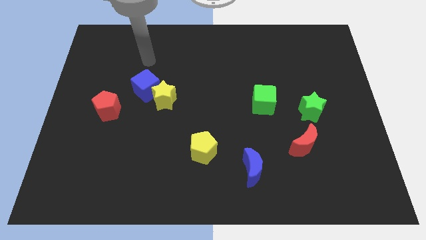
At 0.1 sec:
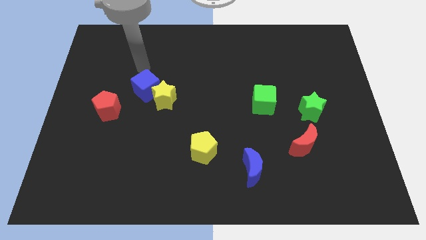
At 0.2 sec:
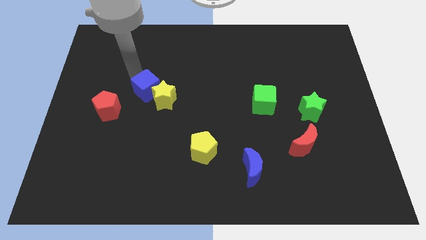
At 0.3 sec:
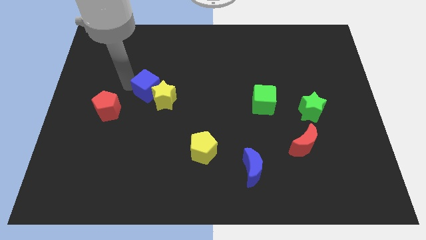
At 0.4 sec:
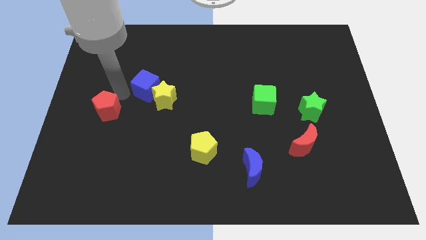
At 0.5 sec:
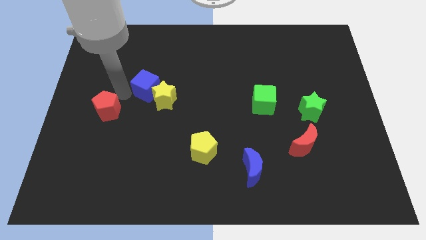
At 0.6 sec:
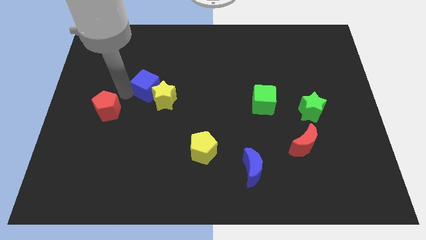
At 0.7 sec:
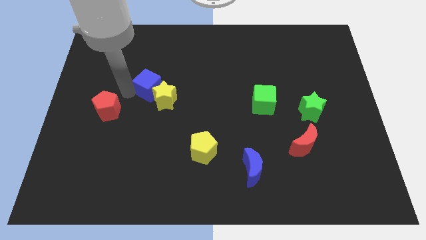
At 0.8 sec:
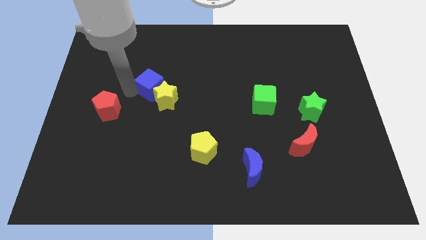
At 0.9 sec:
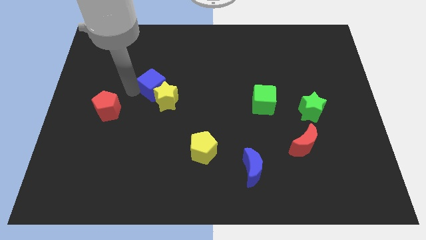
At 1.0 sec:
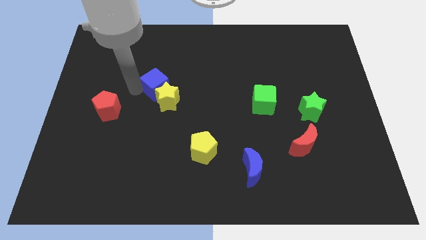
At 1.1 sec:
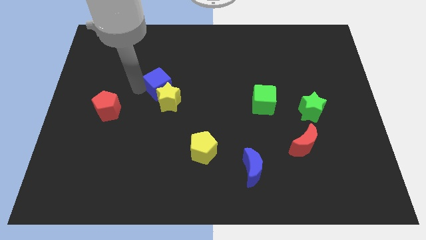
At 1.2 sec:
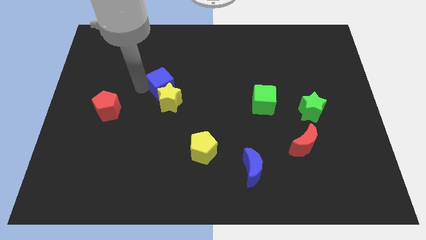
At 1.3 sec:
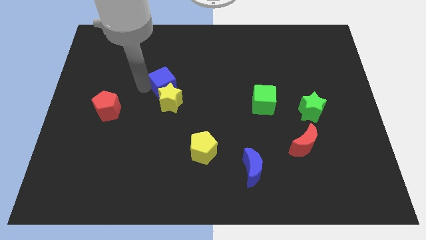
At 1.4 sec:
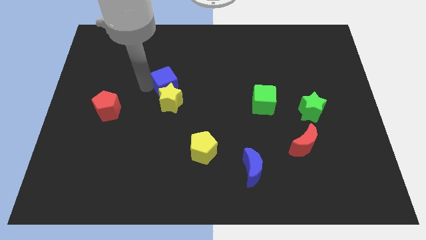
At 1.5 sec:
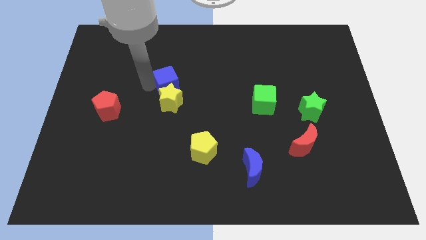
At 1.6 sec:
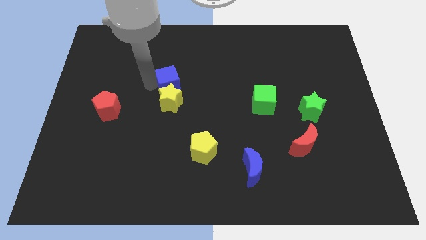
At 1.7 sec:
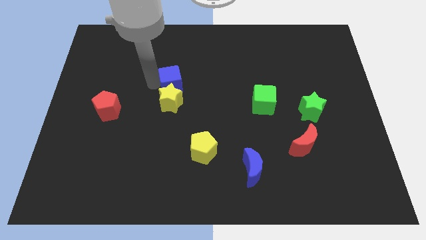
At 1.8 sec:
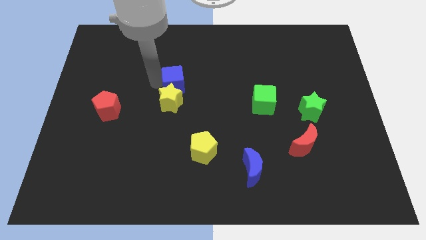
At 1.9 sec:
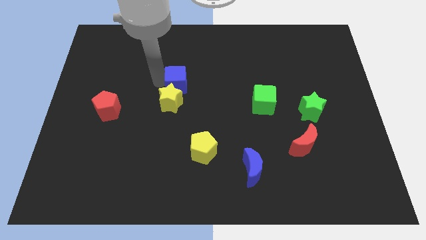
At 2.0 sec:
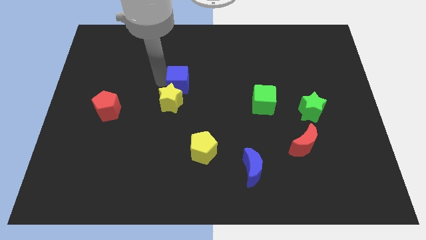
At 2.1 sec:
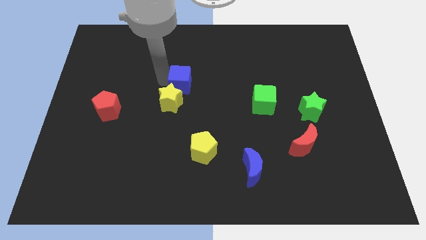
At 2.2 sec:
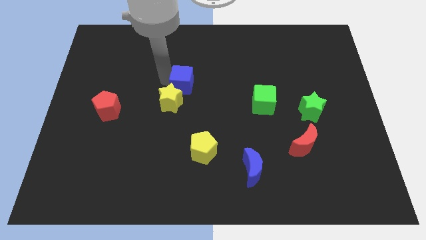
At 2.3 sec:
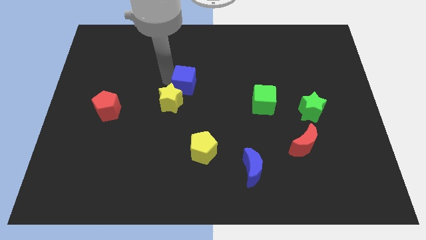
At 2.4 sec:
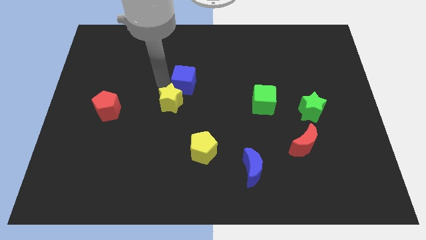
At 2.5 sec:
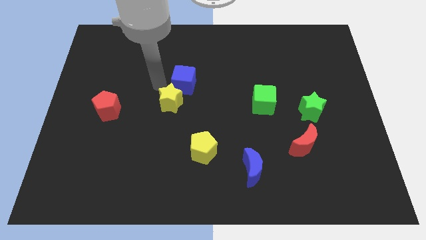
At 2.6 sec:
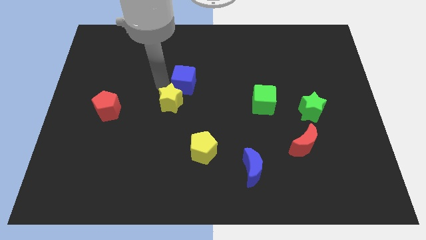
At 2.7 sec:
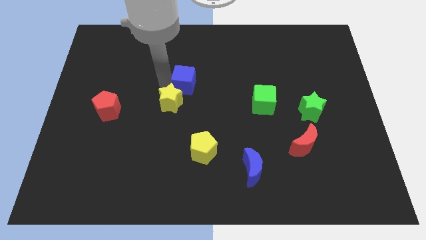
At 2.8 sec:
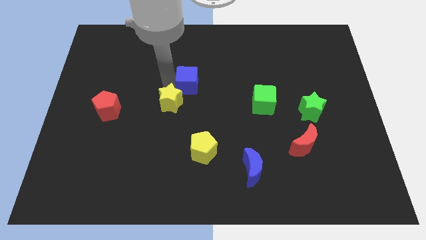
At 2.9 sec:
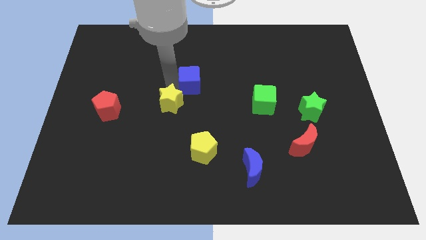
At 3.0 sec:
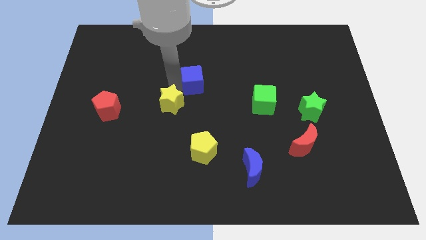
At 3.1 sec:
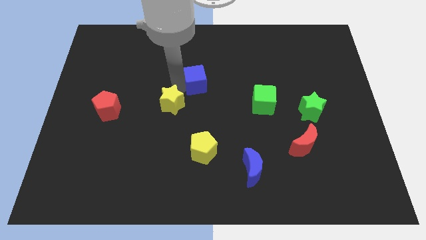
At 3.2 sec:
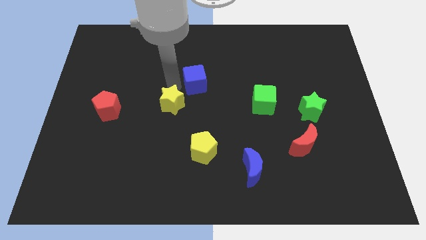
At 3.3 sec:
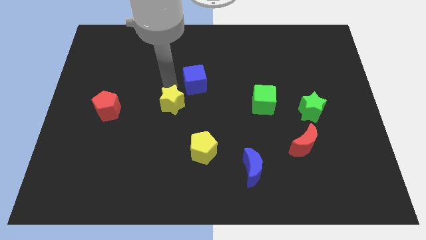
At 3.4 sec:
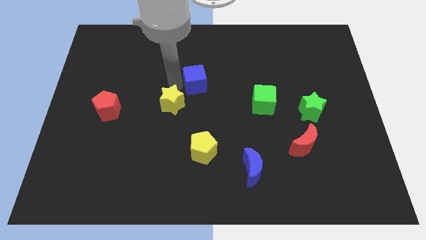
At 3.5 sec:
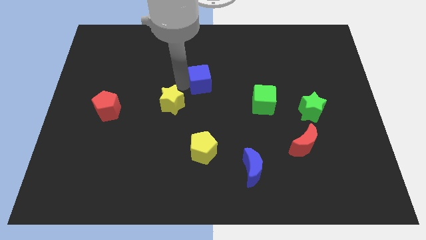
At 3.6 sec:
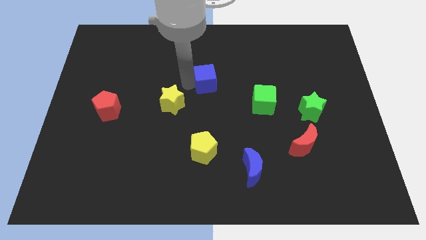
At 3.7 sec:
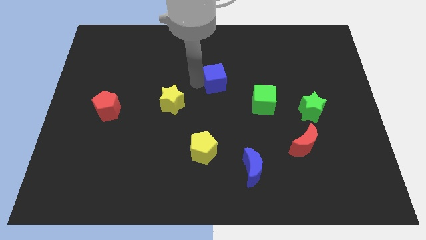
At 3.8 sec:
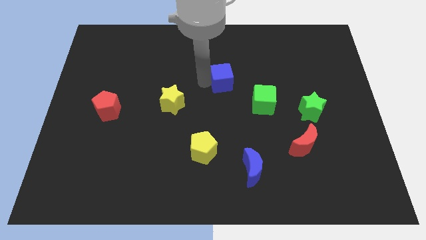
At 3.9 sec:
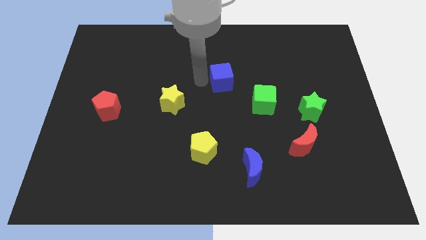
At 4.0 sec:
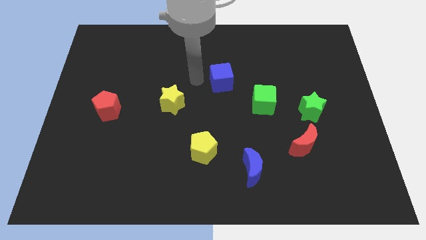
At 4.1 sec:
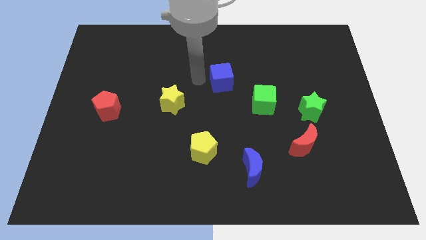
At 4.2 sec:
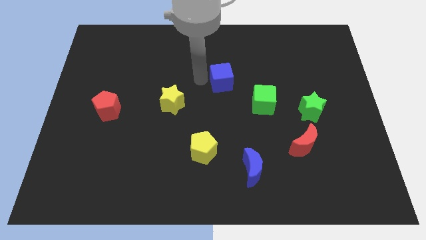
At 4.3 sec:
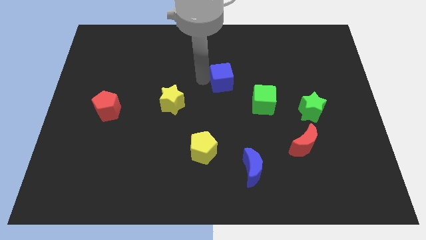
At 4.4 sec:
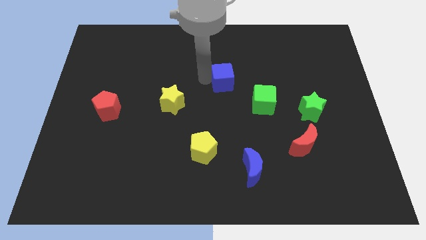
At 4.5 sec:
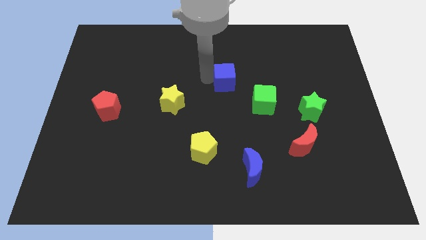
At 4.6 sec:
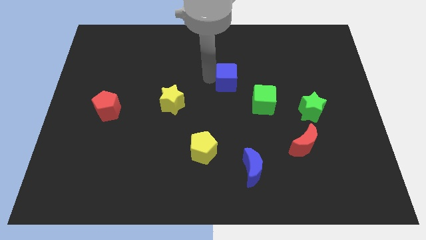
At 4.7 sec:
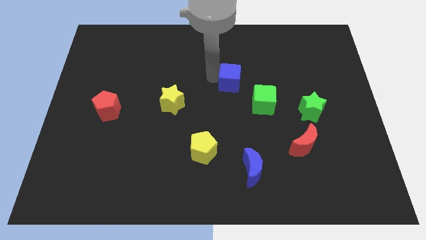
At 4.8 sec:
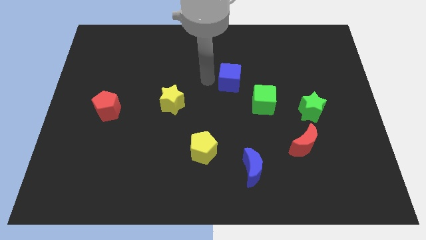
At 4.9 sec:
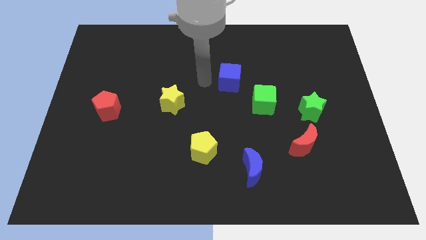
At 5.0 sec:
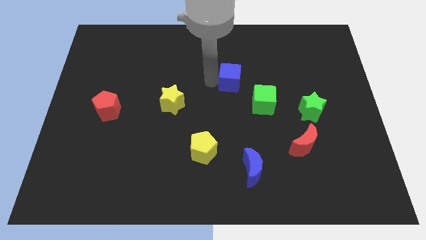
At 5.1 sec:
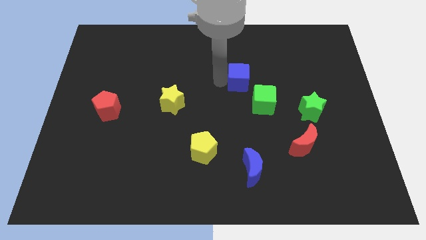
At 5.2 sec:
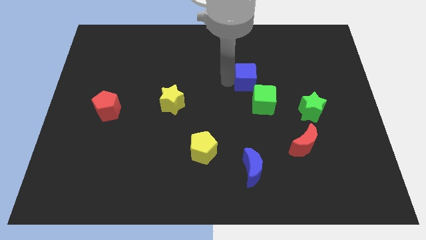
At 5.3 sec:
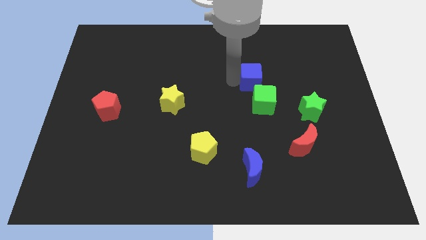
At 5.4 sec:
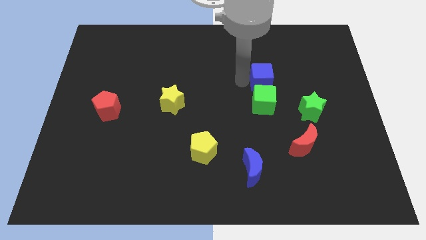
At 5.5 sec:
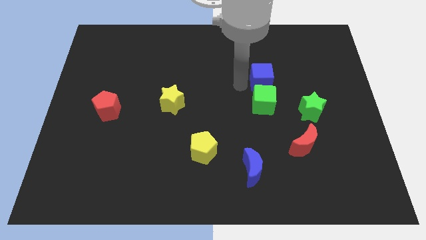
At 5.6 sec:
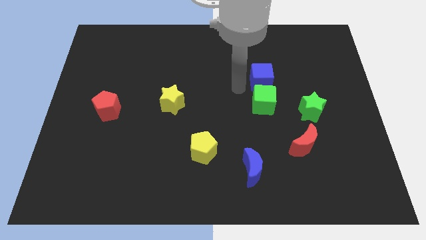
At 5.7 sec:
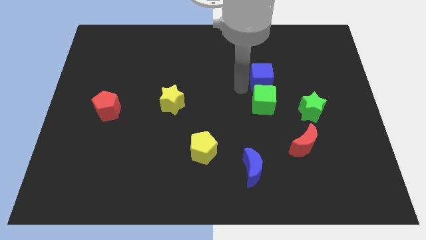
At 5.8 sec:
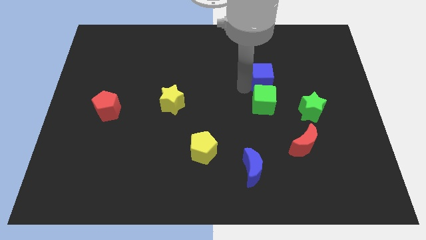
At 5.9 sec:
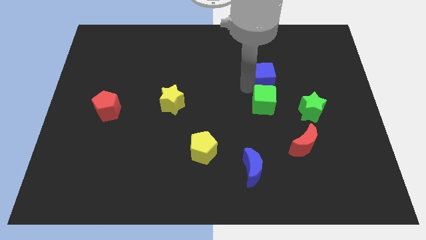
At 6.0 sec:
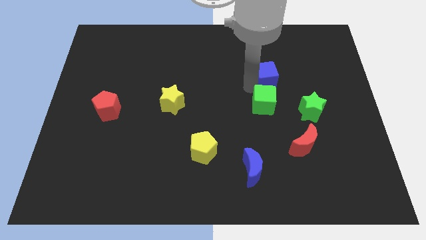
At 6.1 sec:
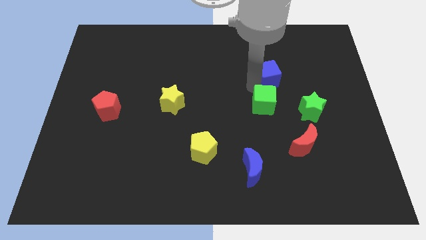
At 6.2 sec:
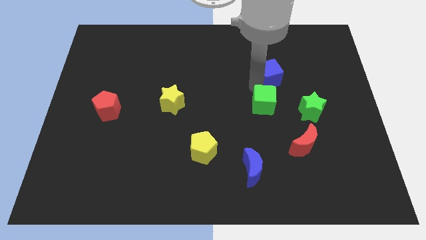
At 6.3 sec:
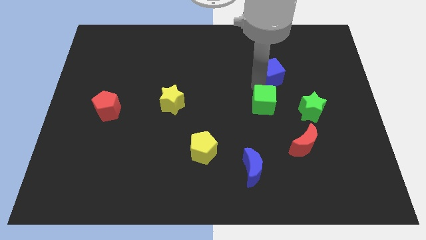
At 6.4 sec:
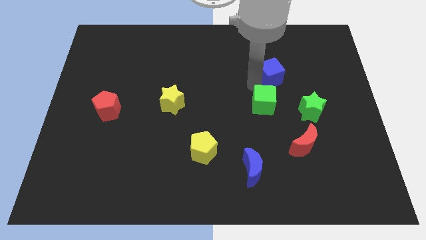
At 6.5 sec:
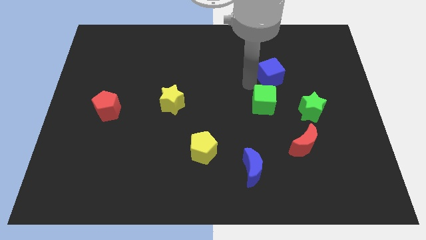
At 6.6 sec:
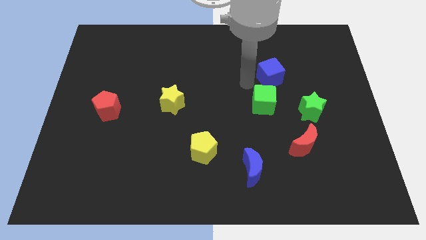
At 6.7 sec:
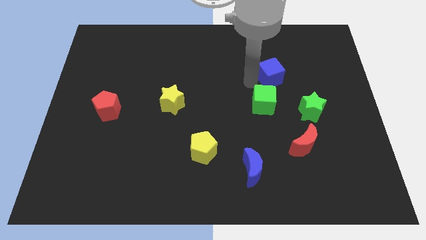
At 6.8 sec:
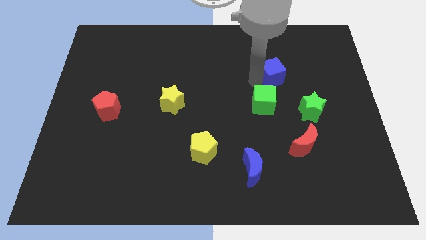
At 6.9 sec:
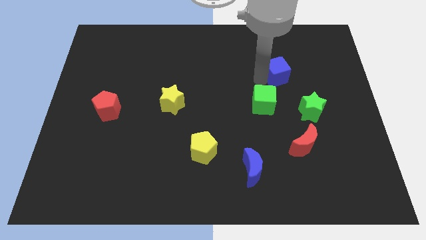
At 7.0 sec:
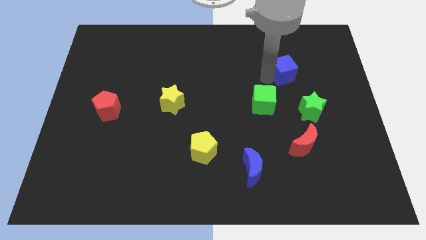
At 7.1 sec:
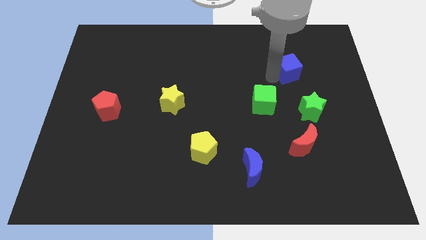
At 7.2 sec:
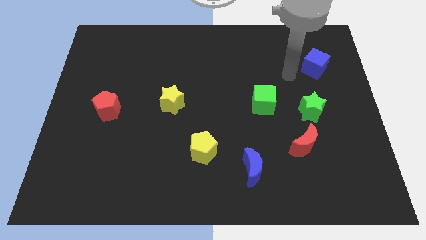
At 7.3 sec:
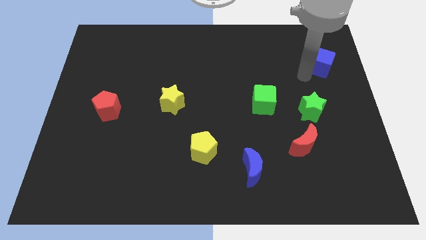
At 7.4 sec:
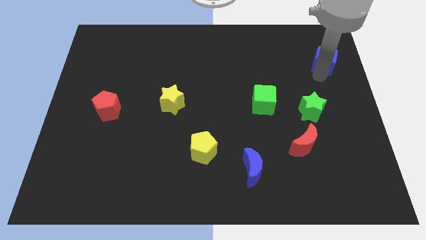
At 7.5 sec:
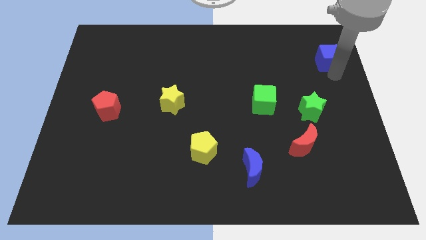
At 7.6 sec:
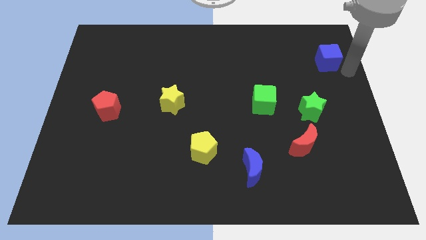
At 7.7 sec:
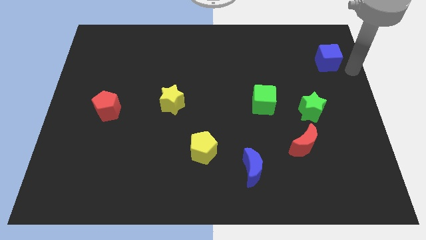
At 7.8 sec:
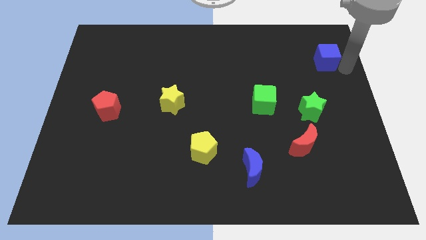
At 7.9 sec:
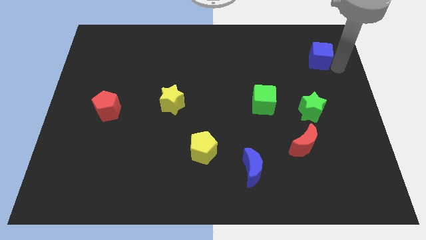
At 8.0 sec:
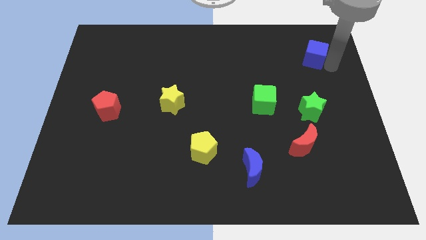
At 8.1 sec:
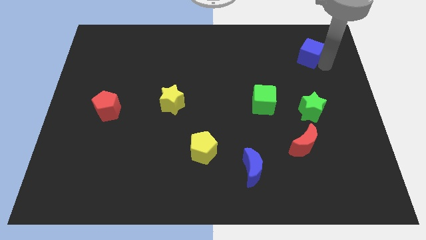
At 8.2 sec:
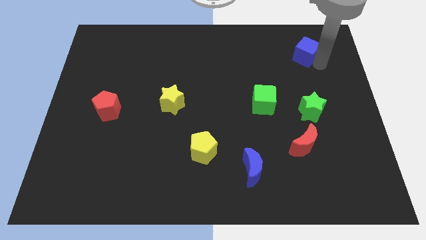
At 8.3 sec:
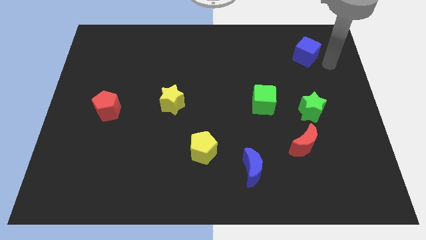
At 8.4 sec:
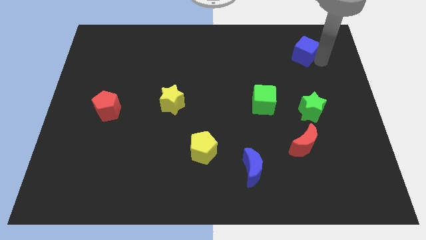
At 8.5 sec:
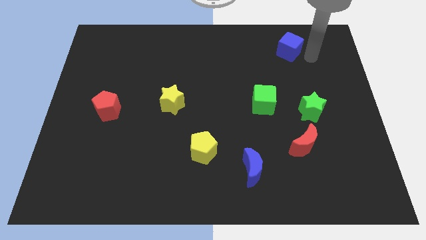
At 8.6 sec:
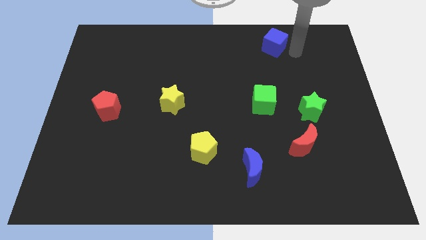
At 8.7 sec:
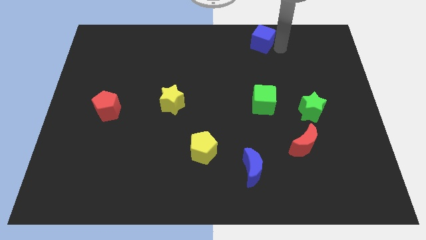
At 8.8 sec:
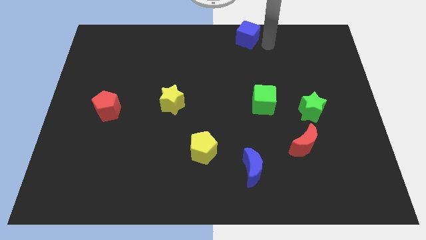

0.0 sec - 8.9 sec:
put the blue cube to the top side
